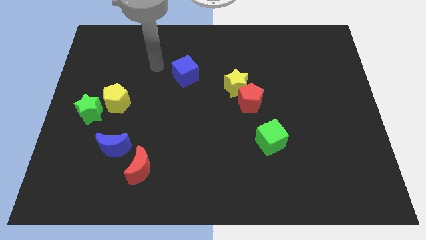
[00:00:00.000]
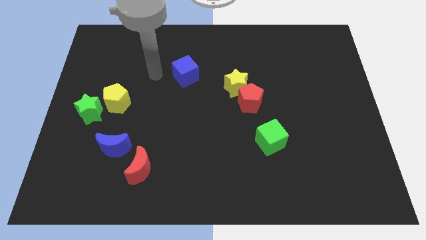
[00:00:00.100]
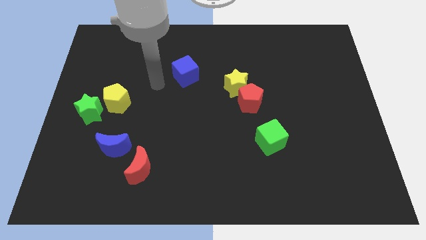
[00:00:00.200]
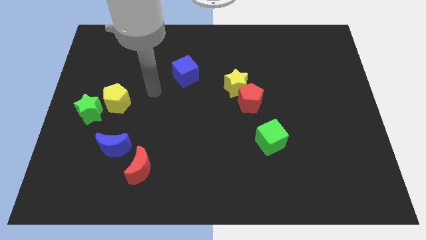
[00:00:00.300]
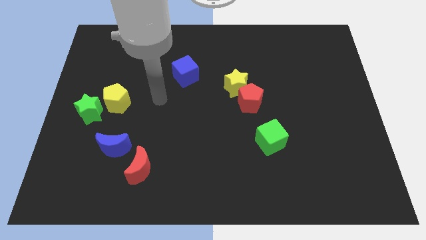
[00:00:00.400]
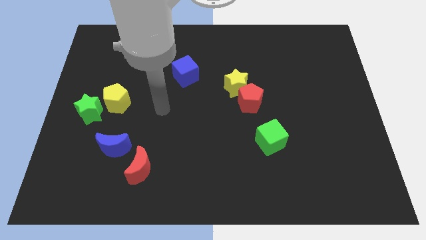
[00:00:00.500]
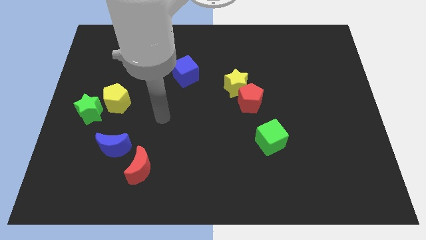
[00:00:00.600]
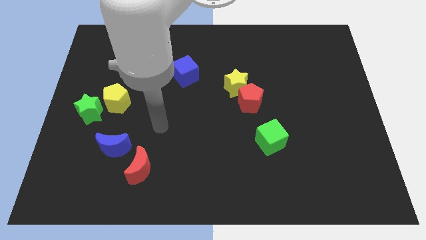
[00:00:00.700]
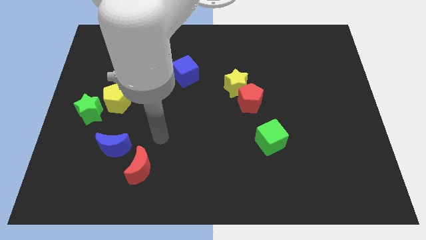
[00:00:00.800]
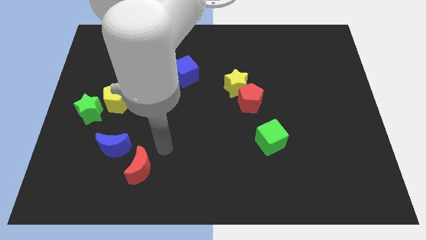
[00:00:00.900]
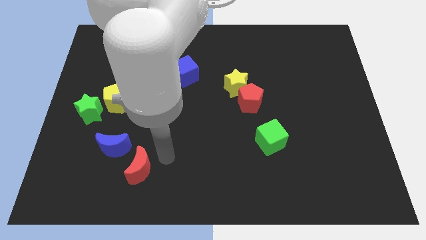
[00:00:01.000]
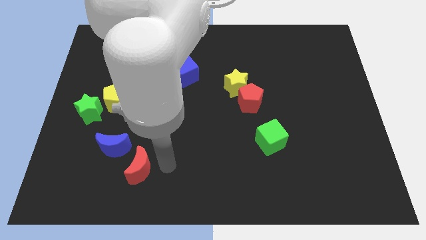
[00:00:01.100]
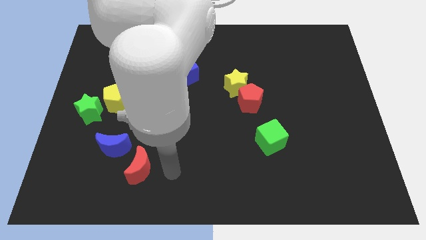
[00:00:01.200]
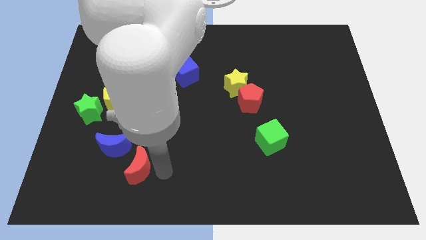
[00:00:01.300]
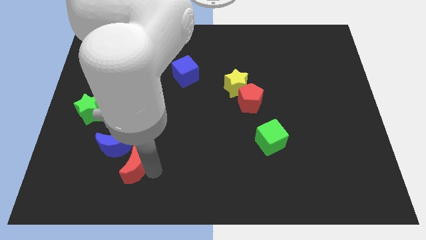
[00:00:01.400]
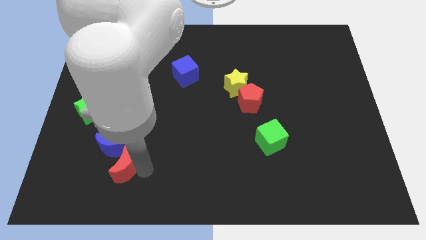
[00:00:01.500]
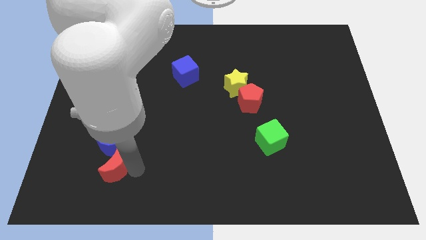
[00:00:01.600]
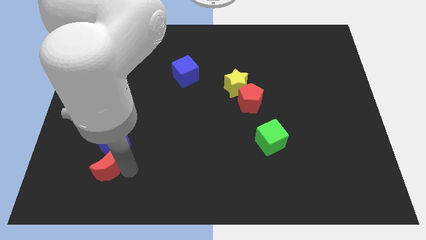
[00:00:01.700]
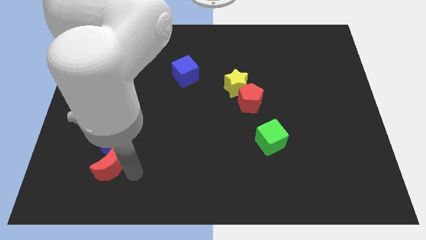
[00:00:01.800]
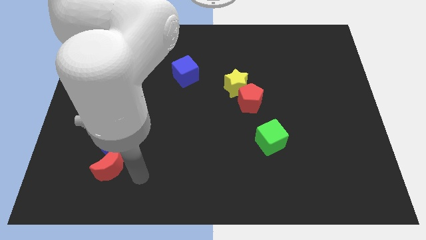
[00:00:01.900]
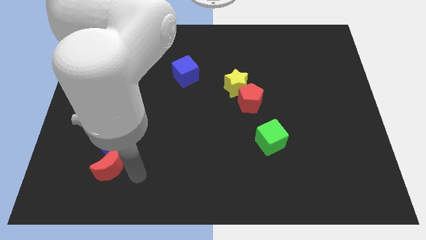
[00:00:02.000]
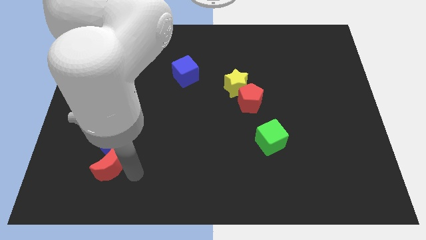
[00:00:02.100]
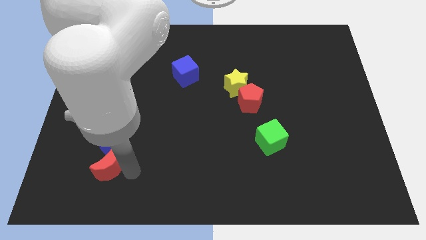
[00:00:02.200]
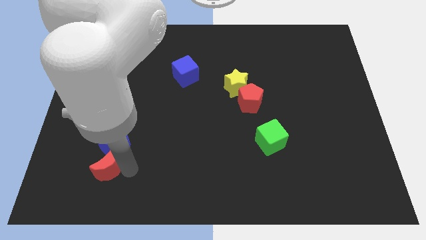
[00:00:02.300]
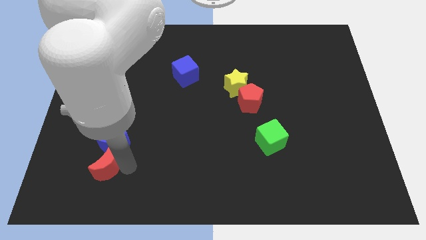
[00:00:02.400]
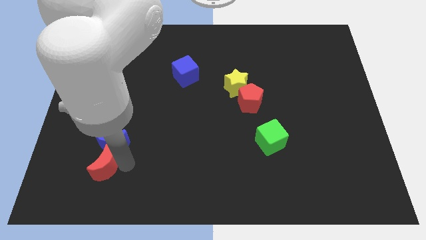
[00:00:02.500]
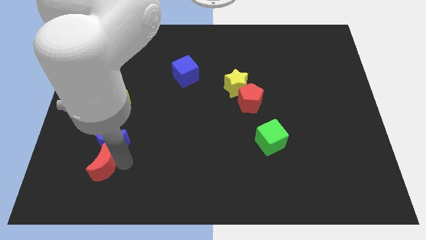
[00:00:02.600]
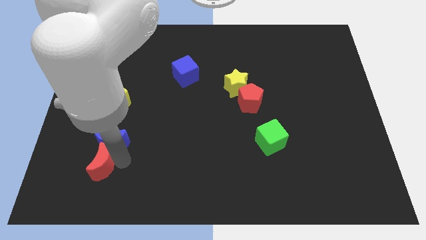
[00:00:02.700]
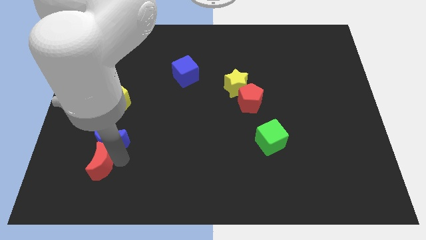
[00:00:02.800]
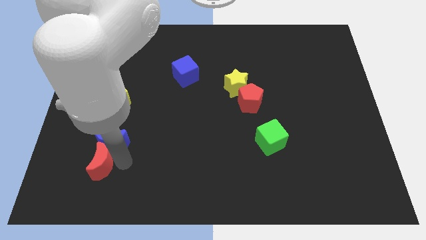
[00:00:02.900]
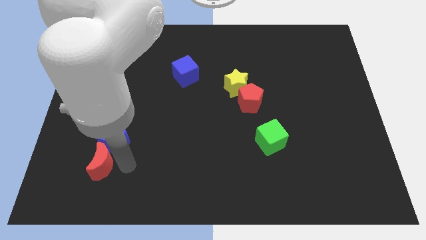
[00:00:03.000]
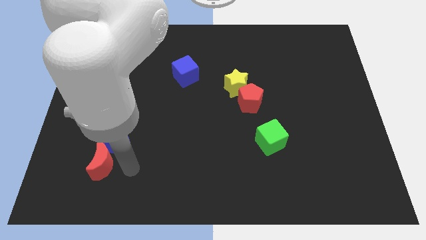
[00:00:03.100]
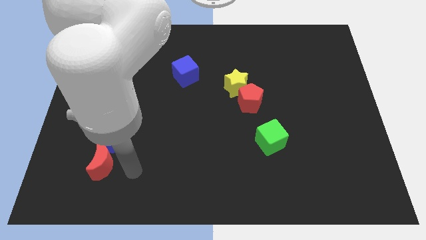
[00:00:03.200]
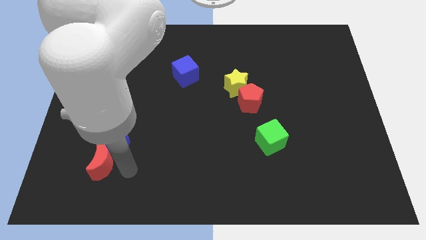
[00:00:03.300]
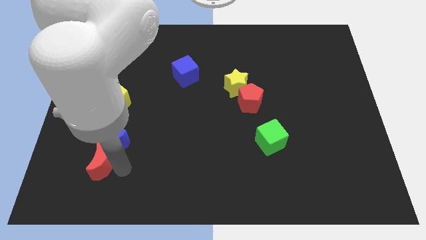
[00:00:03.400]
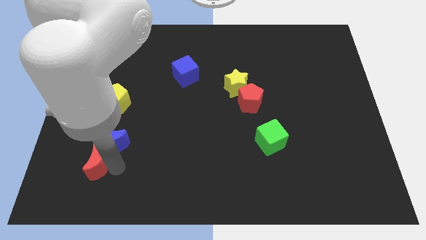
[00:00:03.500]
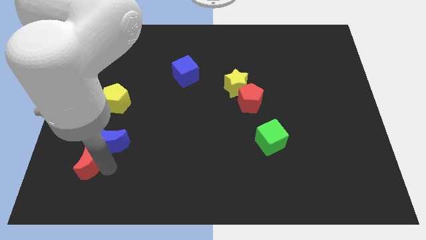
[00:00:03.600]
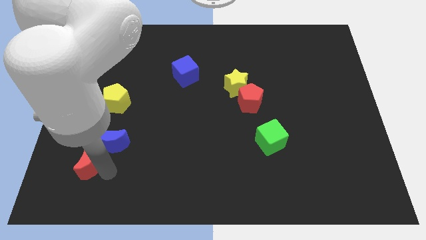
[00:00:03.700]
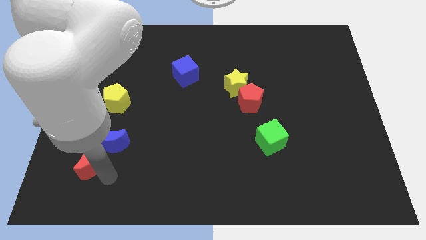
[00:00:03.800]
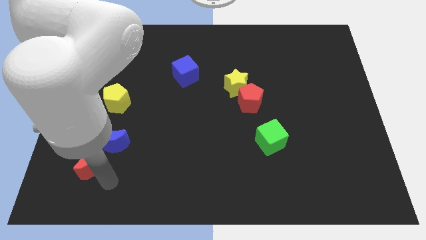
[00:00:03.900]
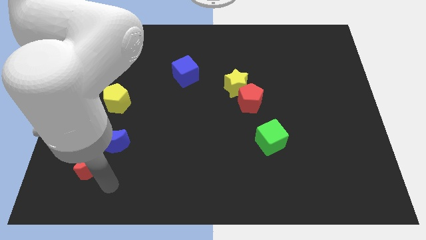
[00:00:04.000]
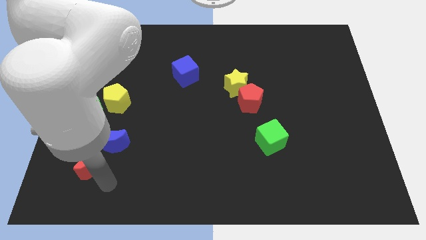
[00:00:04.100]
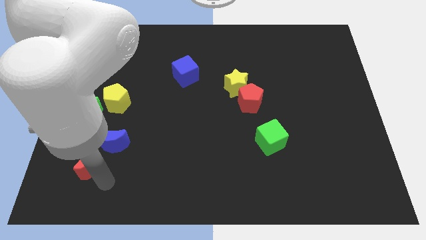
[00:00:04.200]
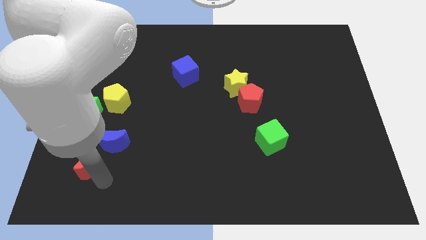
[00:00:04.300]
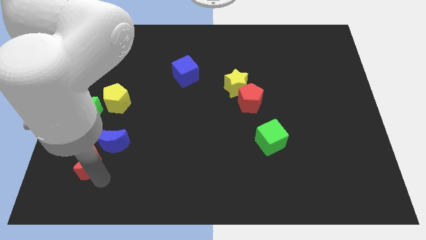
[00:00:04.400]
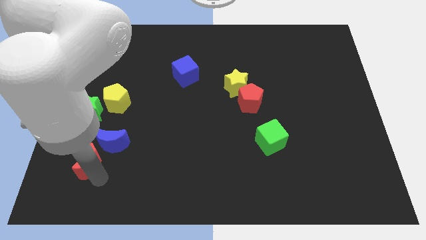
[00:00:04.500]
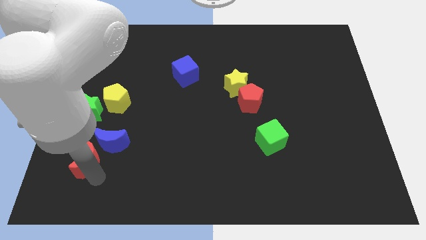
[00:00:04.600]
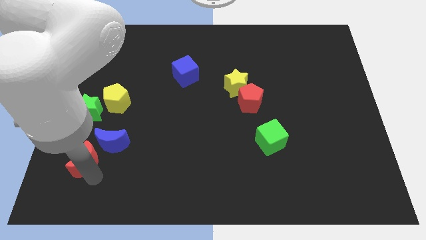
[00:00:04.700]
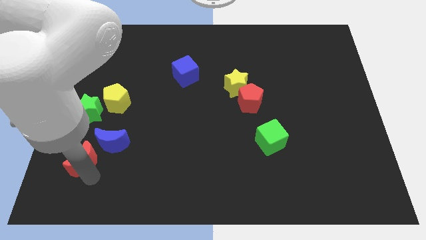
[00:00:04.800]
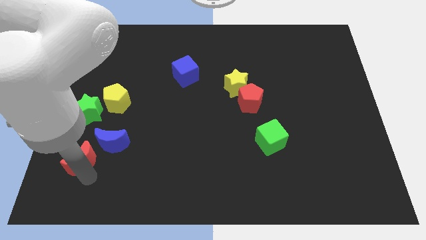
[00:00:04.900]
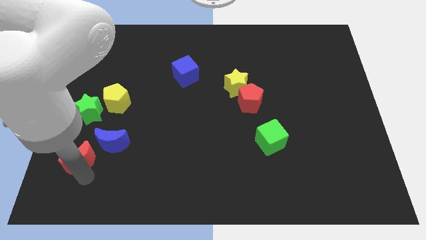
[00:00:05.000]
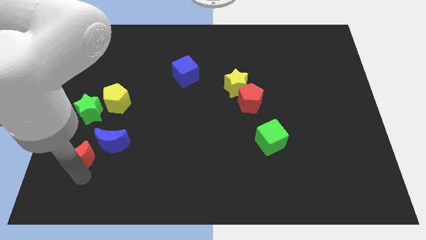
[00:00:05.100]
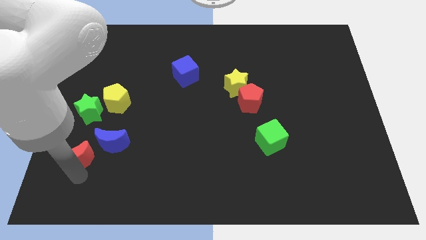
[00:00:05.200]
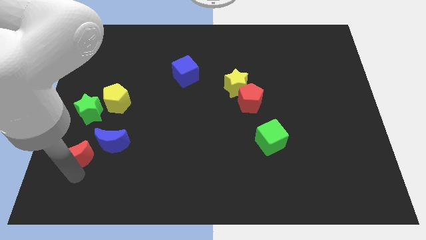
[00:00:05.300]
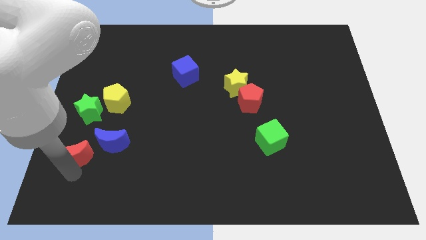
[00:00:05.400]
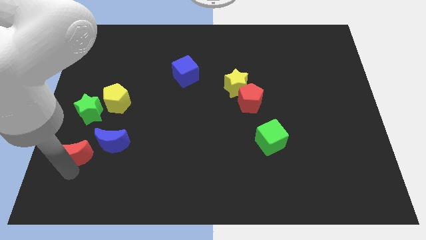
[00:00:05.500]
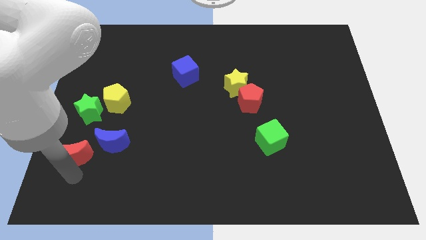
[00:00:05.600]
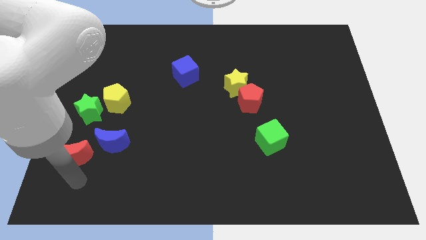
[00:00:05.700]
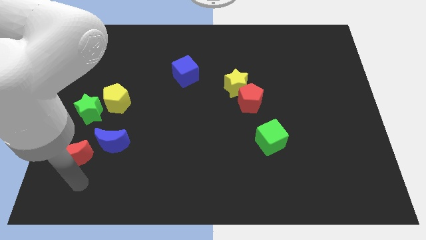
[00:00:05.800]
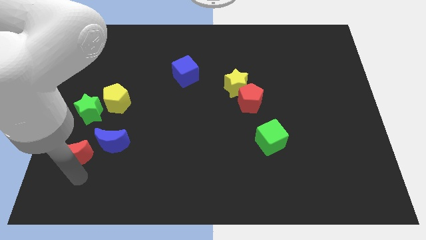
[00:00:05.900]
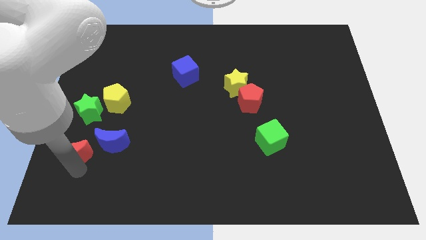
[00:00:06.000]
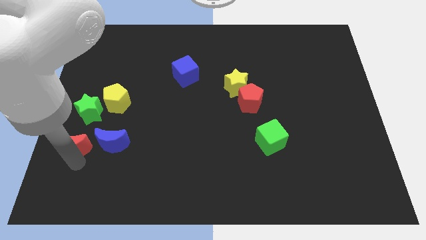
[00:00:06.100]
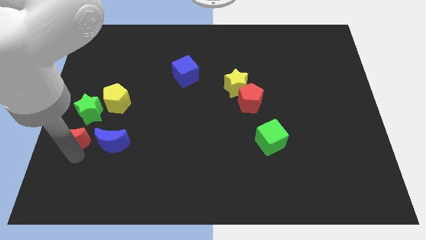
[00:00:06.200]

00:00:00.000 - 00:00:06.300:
put the red moon to the center left

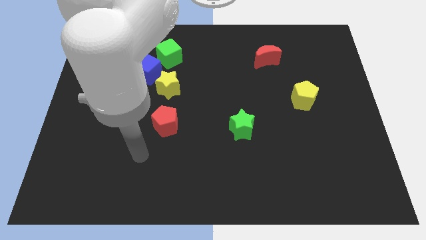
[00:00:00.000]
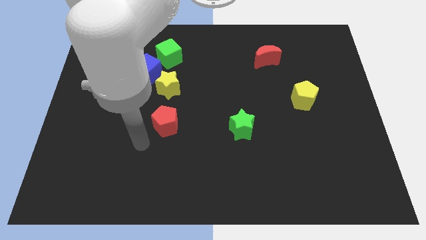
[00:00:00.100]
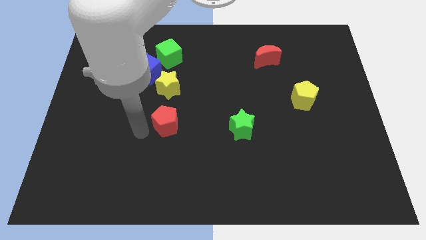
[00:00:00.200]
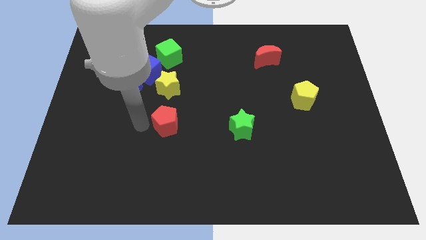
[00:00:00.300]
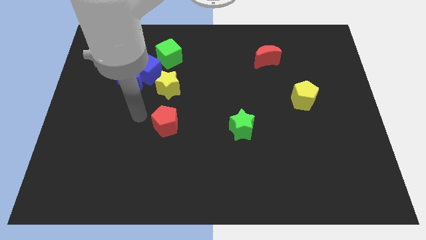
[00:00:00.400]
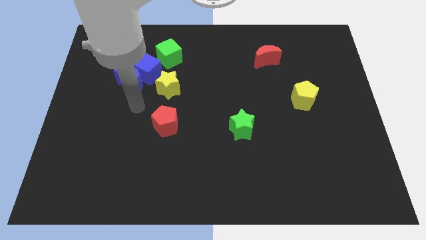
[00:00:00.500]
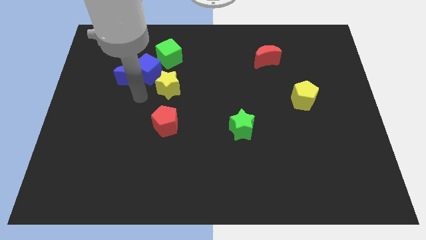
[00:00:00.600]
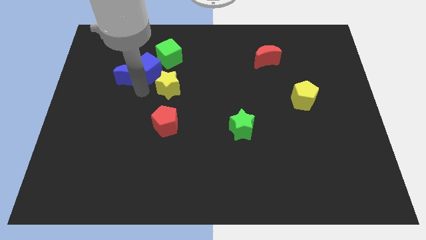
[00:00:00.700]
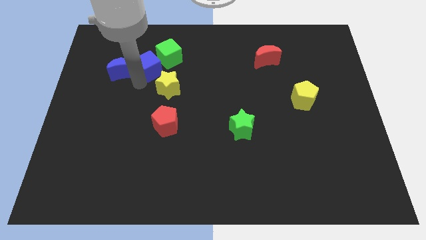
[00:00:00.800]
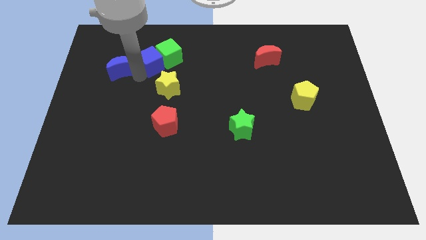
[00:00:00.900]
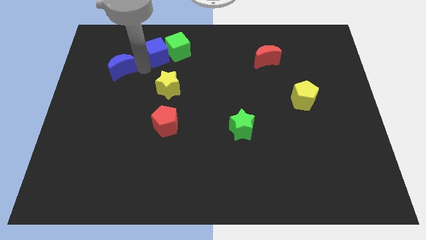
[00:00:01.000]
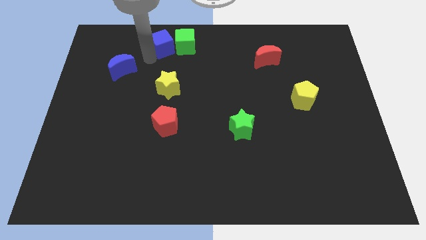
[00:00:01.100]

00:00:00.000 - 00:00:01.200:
push the green cube to the top side
